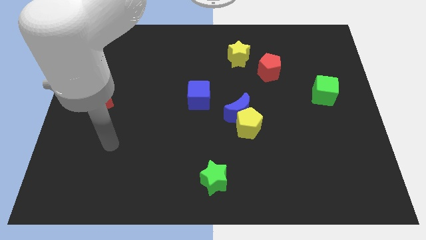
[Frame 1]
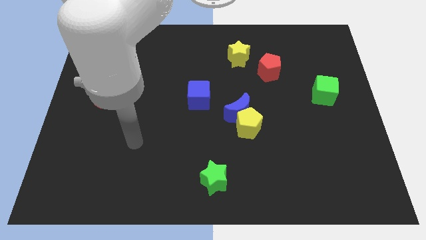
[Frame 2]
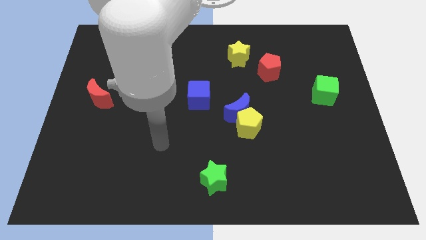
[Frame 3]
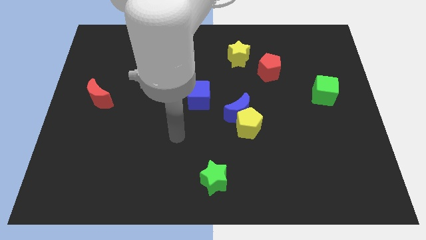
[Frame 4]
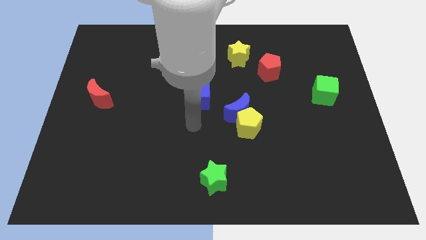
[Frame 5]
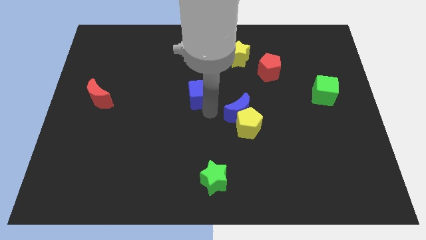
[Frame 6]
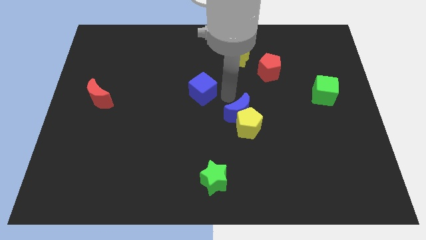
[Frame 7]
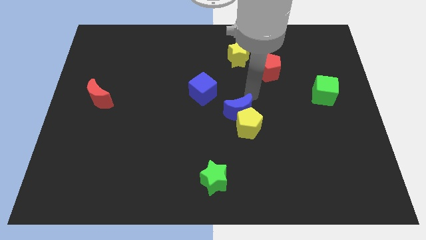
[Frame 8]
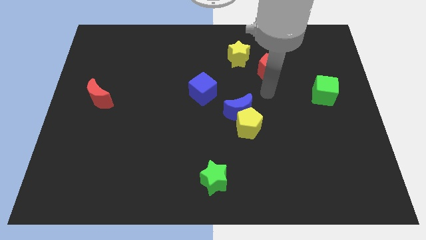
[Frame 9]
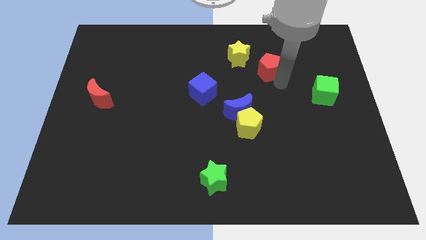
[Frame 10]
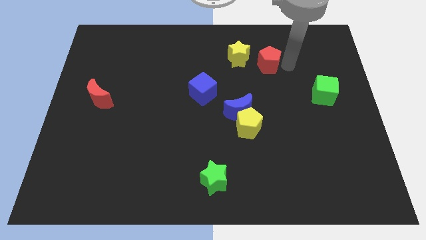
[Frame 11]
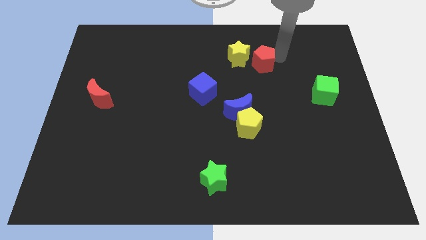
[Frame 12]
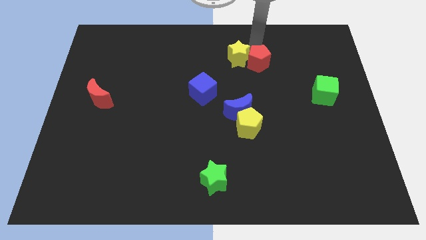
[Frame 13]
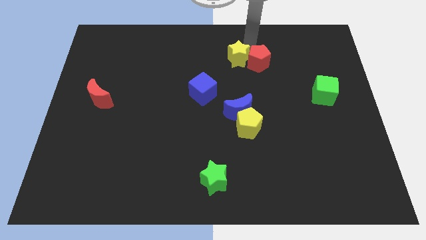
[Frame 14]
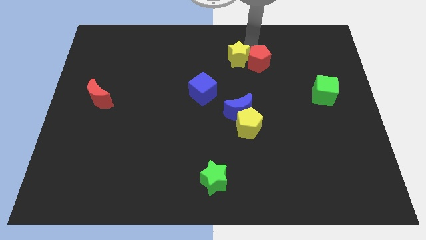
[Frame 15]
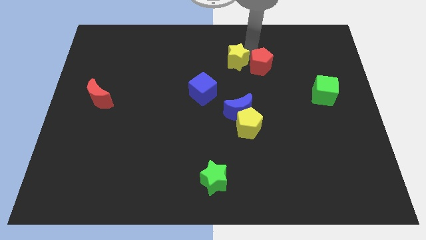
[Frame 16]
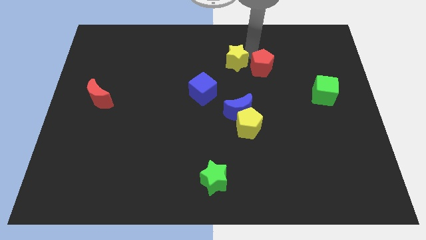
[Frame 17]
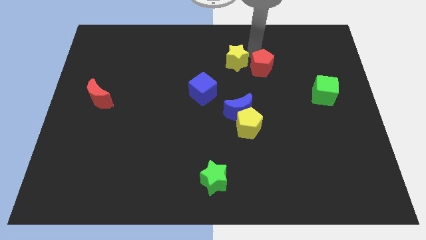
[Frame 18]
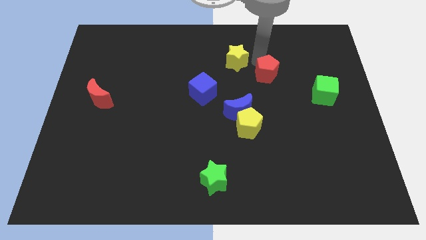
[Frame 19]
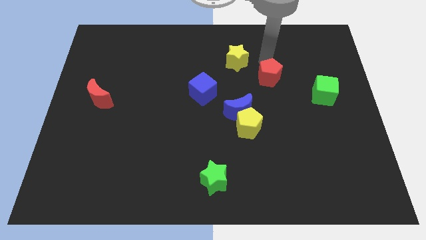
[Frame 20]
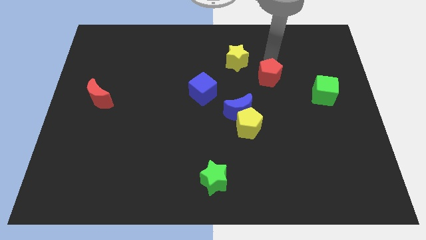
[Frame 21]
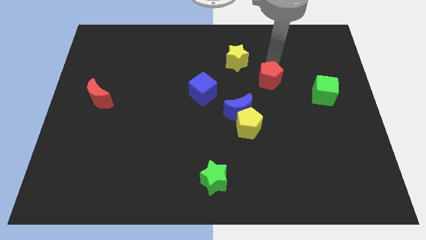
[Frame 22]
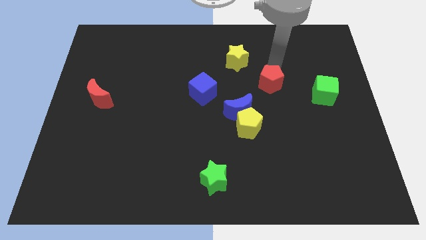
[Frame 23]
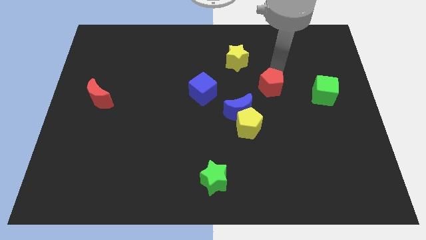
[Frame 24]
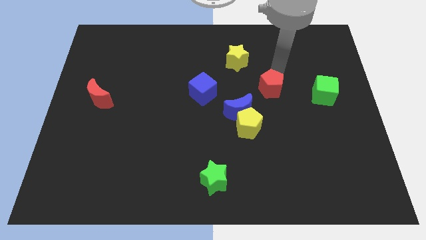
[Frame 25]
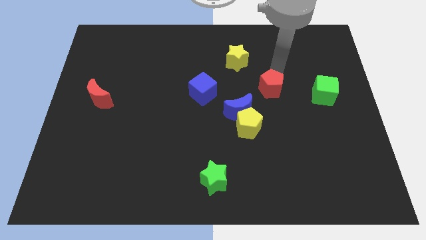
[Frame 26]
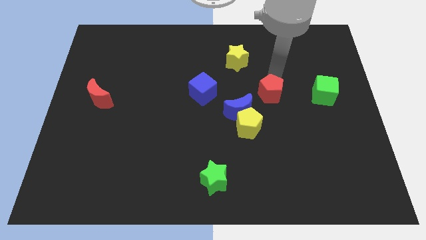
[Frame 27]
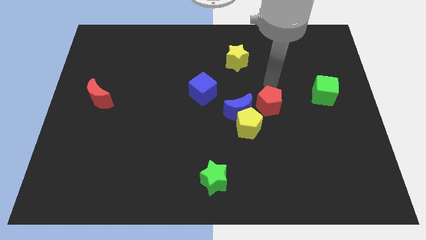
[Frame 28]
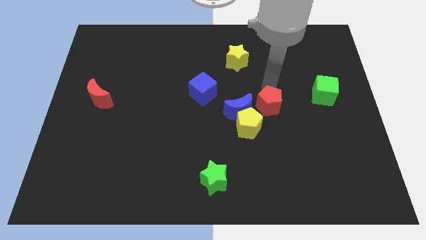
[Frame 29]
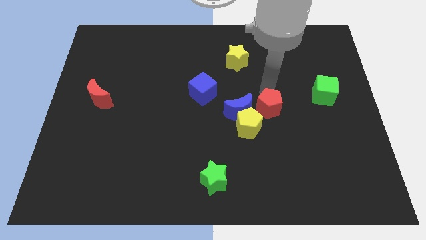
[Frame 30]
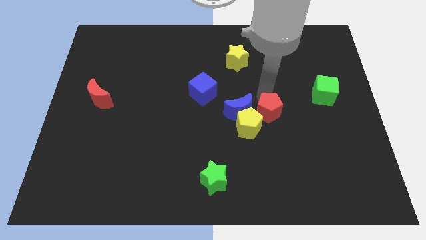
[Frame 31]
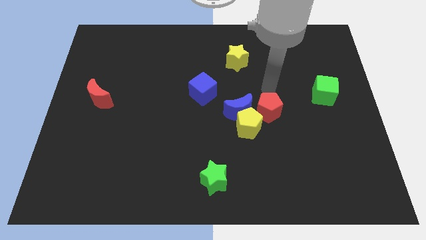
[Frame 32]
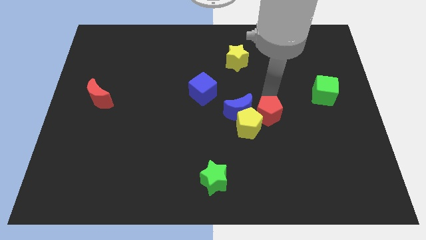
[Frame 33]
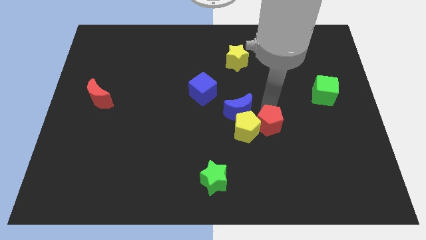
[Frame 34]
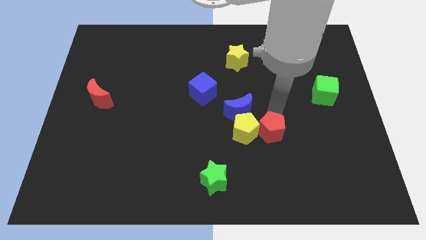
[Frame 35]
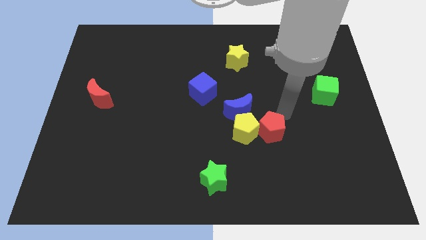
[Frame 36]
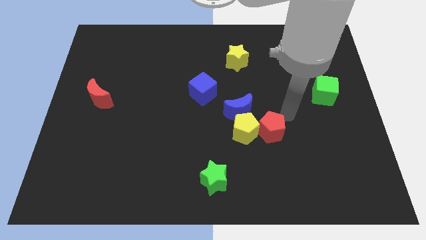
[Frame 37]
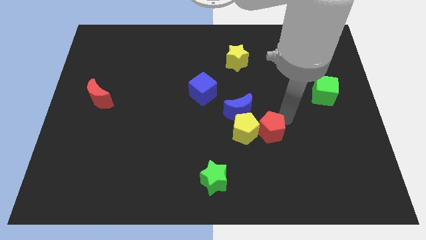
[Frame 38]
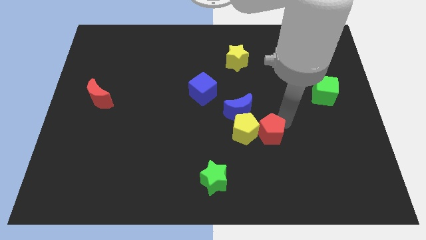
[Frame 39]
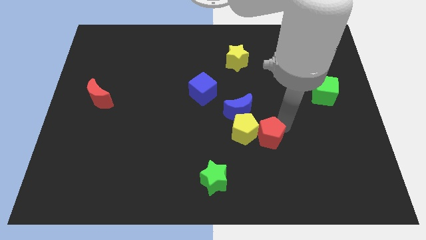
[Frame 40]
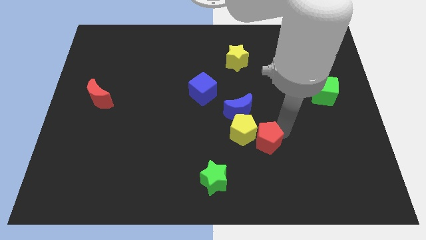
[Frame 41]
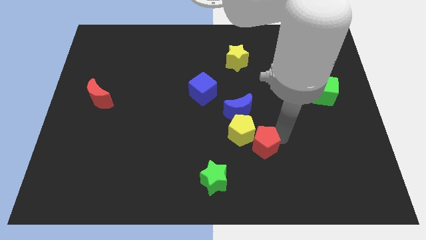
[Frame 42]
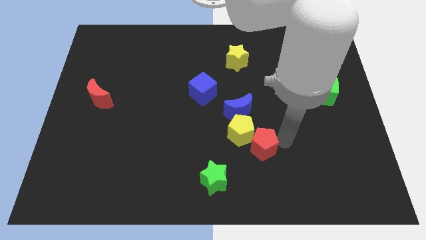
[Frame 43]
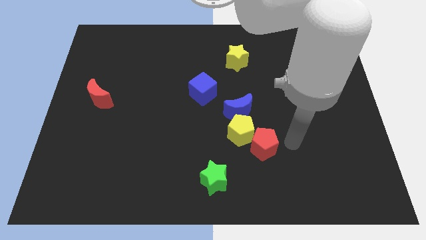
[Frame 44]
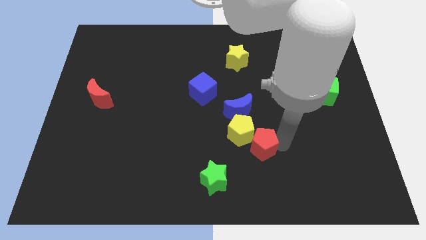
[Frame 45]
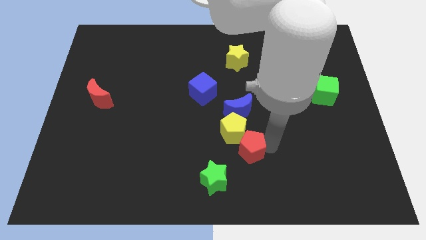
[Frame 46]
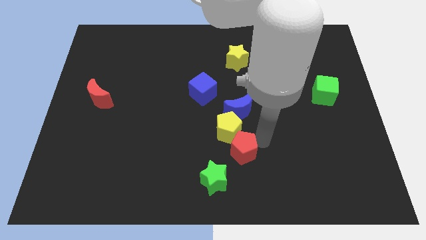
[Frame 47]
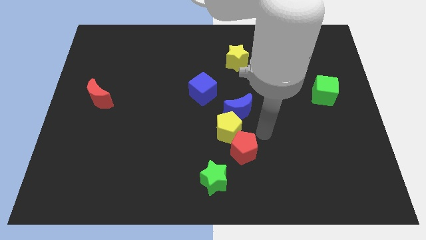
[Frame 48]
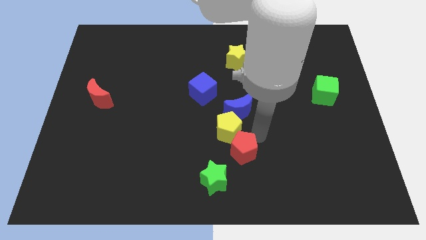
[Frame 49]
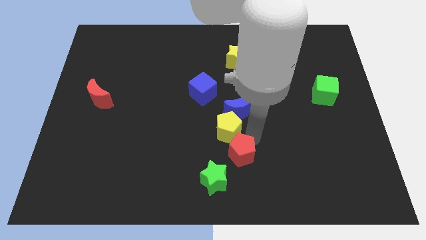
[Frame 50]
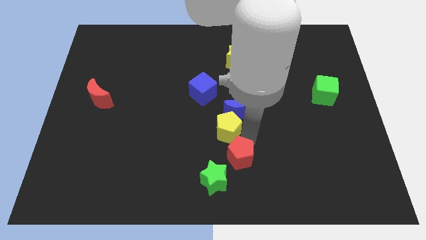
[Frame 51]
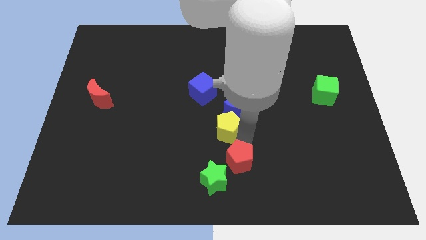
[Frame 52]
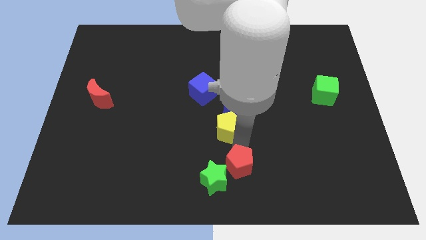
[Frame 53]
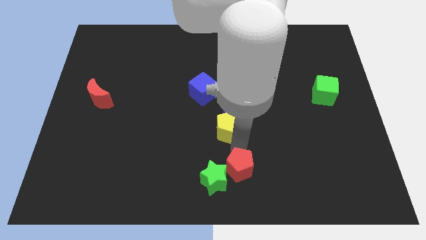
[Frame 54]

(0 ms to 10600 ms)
slide the red pentagon next to the green star

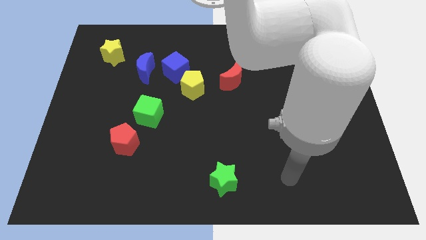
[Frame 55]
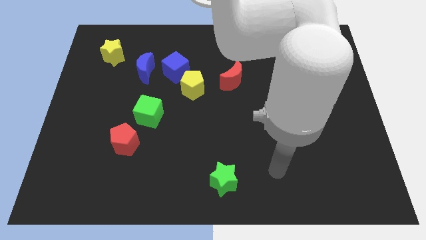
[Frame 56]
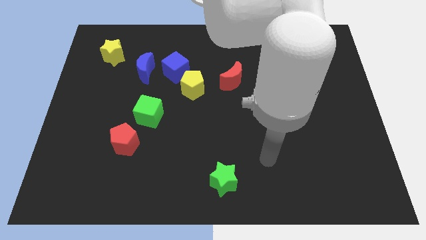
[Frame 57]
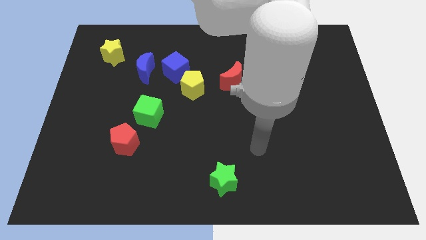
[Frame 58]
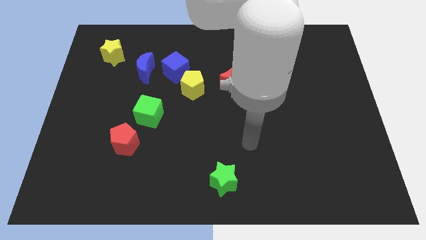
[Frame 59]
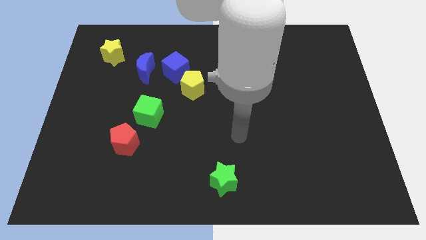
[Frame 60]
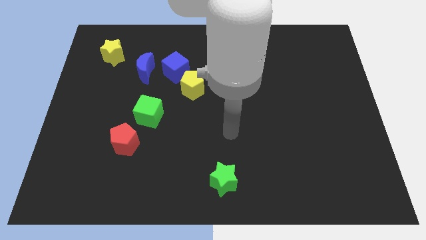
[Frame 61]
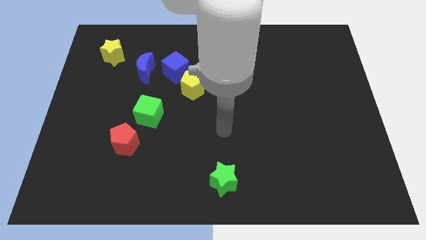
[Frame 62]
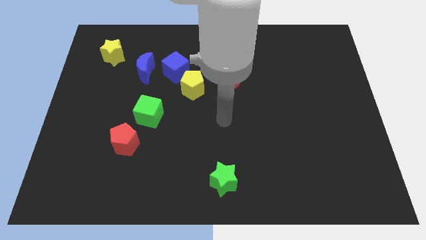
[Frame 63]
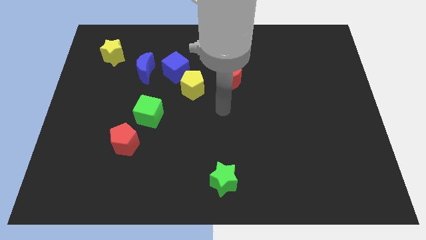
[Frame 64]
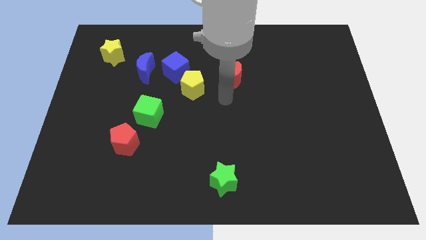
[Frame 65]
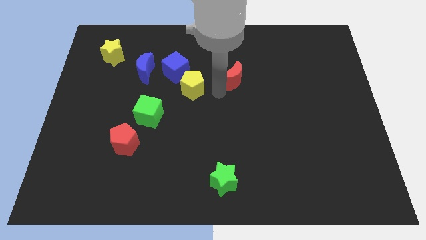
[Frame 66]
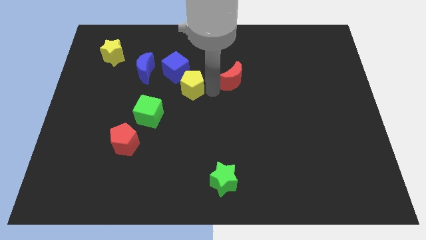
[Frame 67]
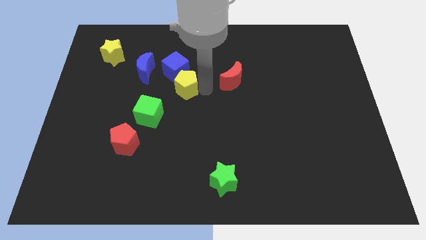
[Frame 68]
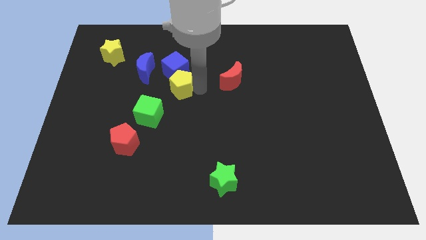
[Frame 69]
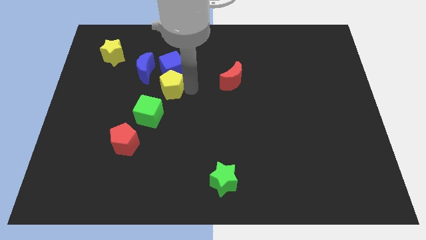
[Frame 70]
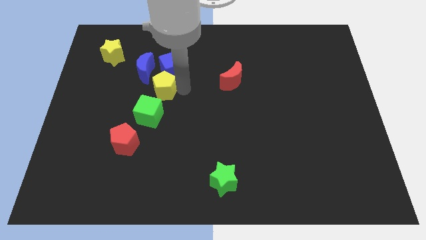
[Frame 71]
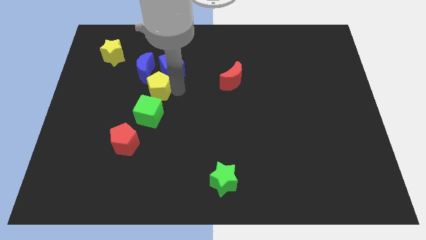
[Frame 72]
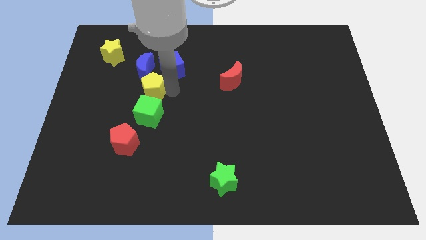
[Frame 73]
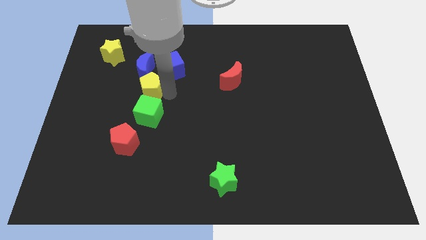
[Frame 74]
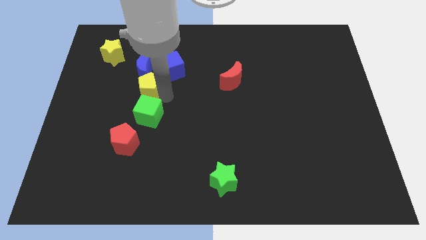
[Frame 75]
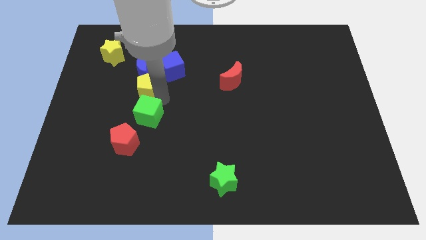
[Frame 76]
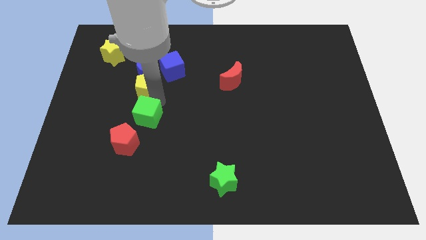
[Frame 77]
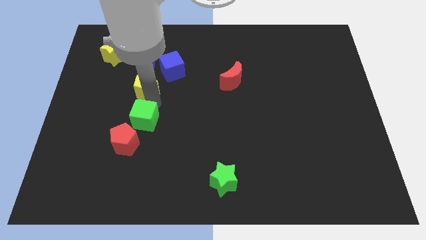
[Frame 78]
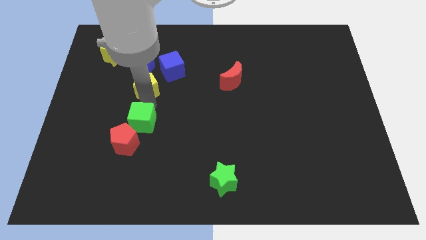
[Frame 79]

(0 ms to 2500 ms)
move the yellow pentagon close to the blue moon
